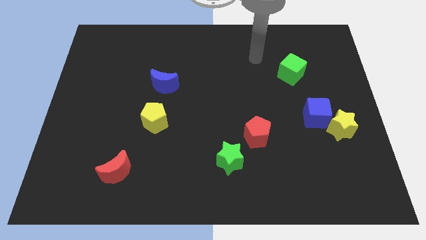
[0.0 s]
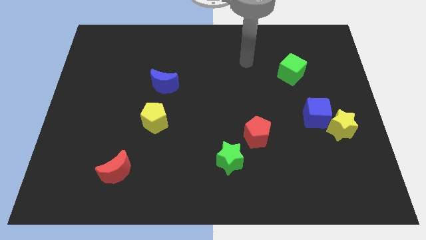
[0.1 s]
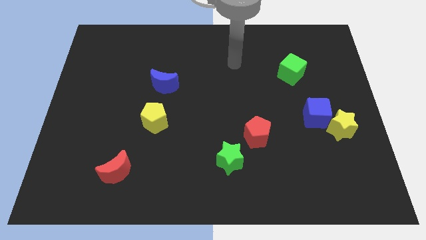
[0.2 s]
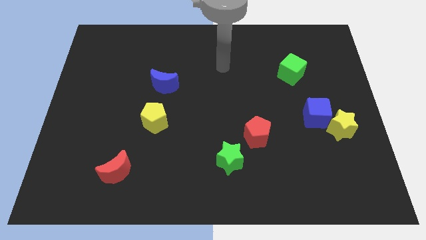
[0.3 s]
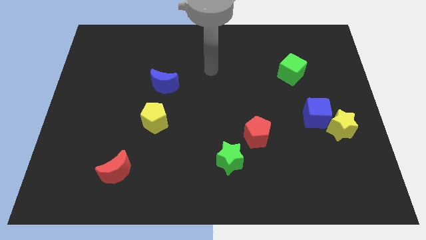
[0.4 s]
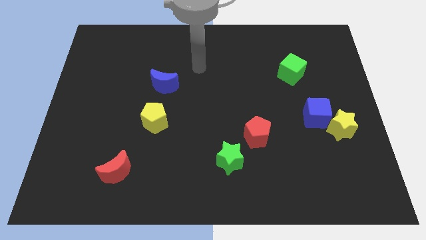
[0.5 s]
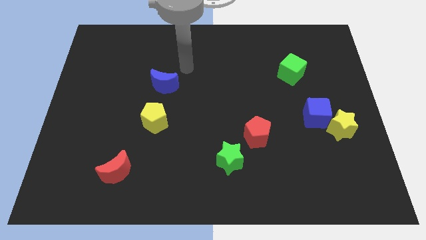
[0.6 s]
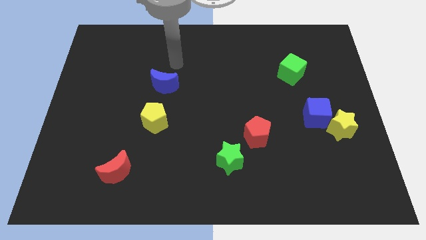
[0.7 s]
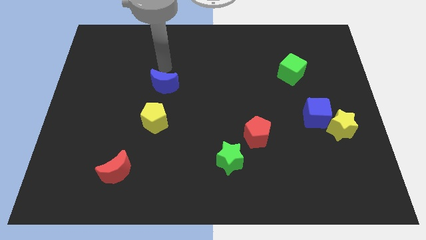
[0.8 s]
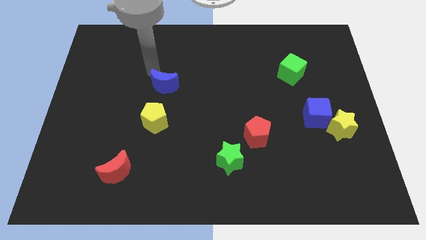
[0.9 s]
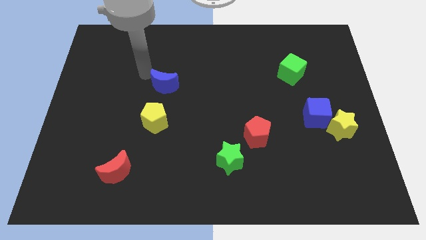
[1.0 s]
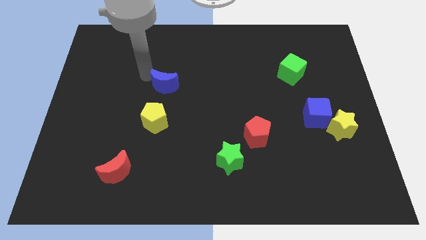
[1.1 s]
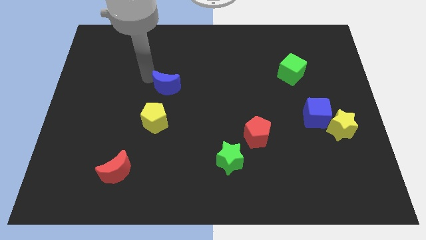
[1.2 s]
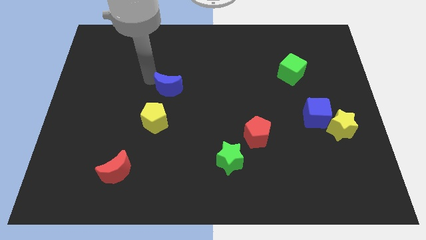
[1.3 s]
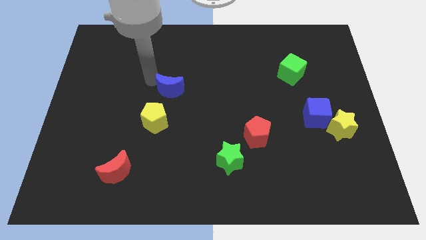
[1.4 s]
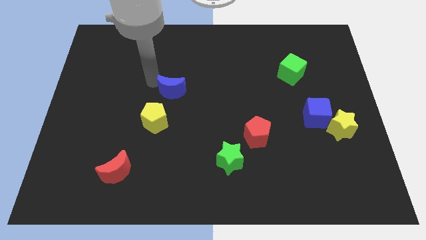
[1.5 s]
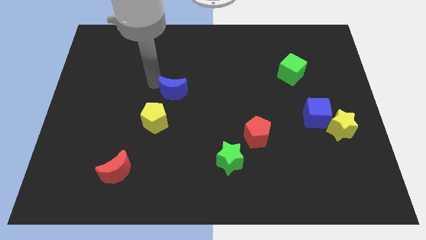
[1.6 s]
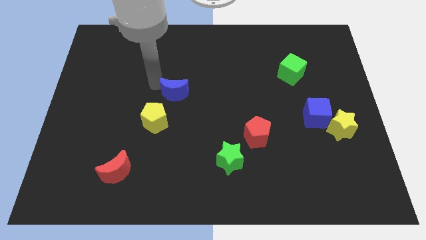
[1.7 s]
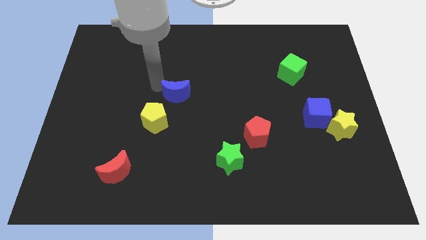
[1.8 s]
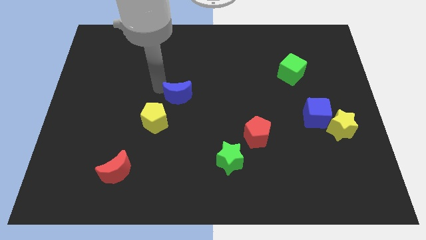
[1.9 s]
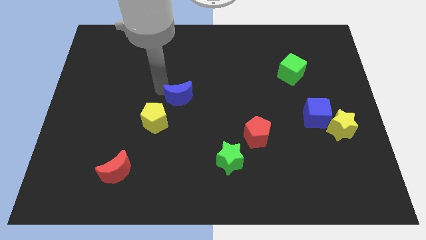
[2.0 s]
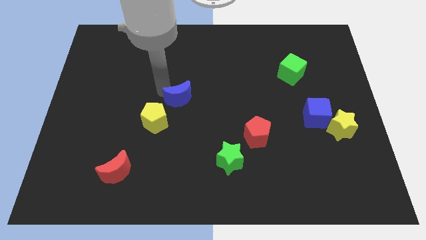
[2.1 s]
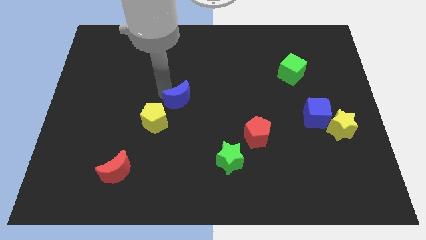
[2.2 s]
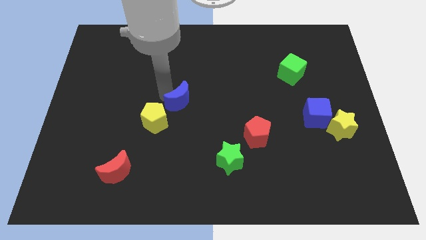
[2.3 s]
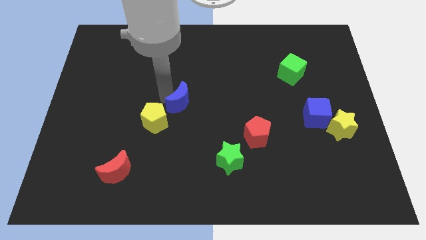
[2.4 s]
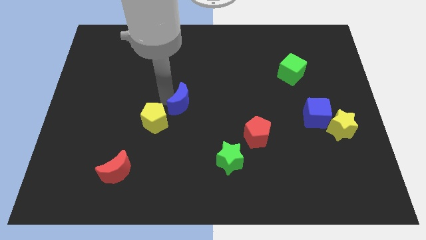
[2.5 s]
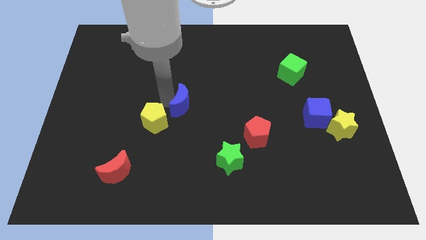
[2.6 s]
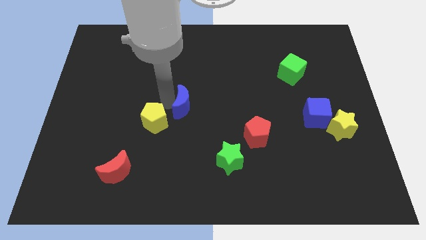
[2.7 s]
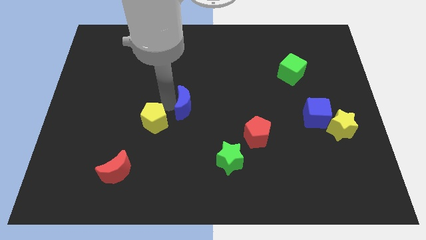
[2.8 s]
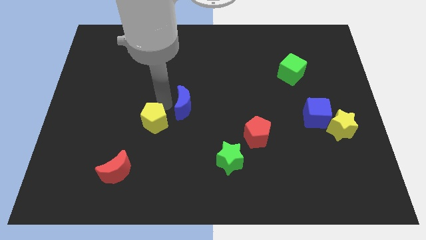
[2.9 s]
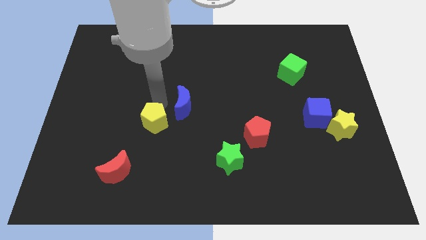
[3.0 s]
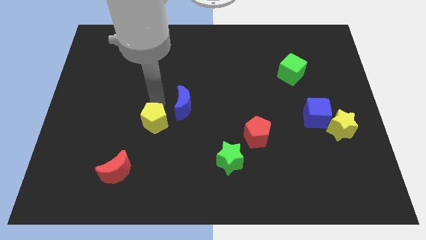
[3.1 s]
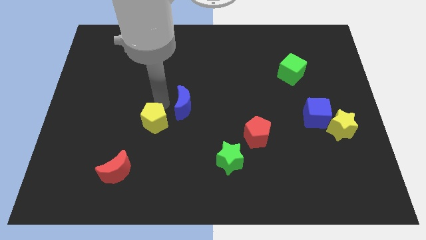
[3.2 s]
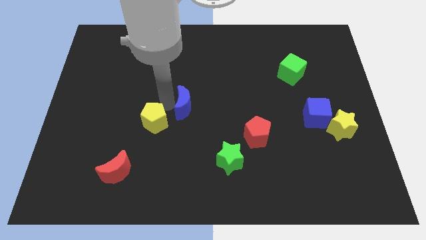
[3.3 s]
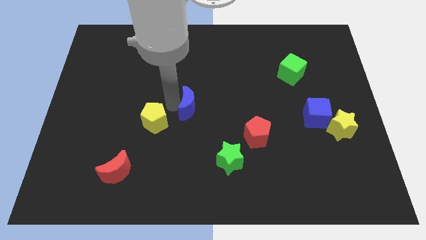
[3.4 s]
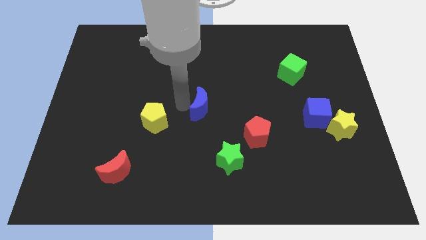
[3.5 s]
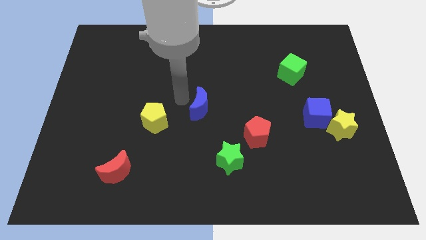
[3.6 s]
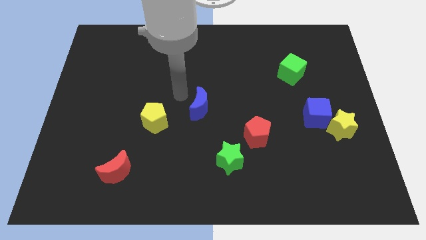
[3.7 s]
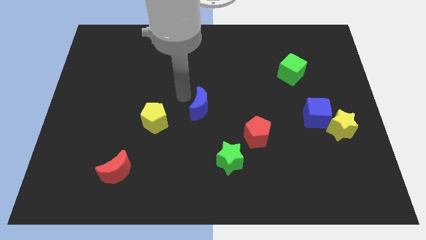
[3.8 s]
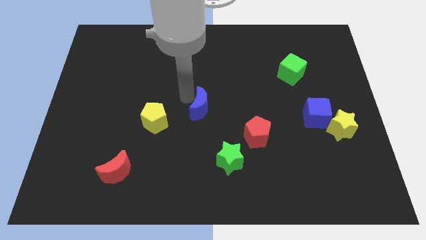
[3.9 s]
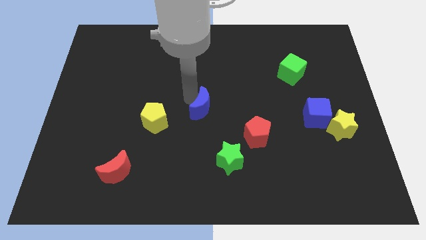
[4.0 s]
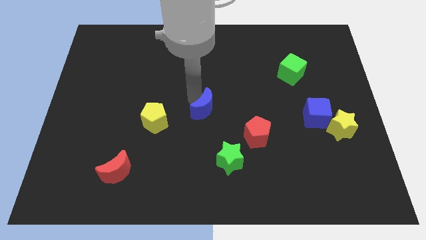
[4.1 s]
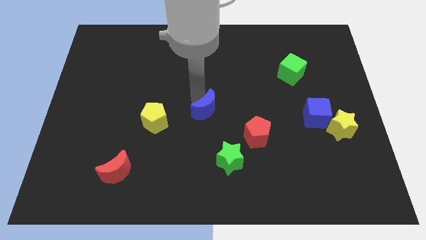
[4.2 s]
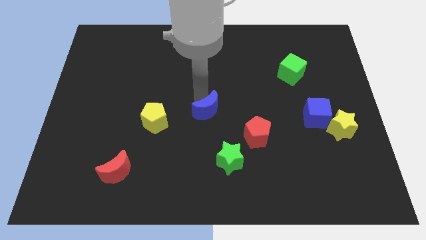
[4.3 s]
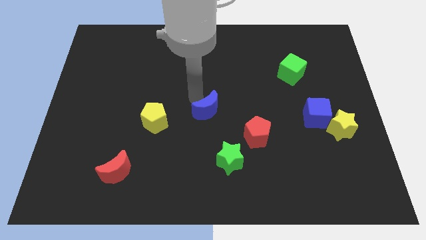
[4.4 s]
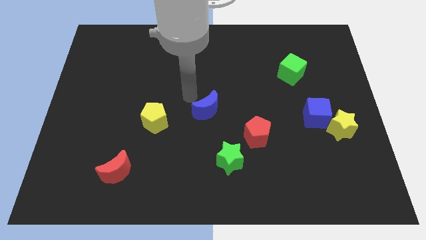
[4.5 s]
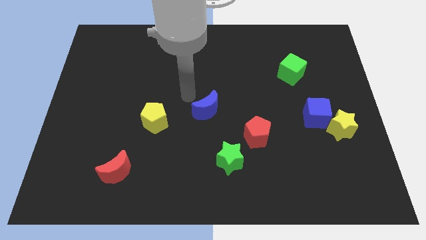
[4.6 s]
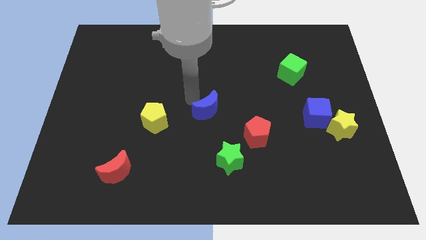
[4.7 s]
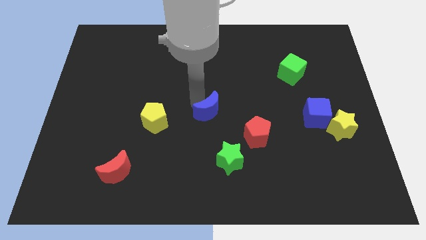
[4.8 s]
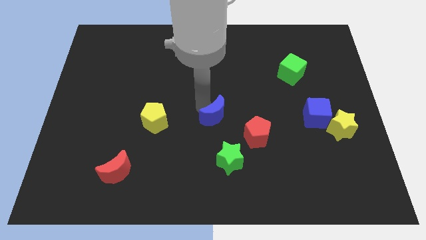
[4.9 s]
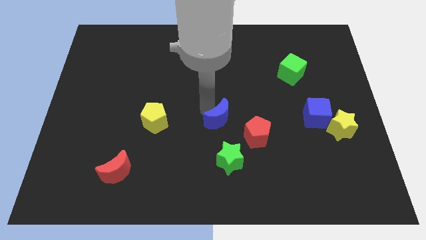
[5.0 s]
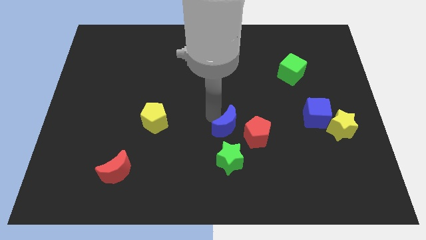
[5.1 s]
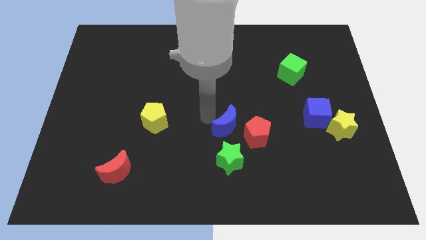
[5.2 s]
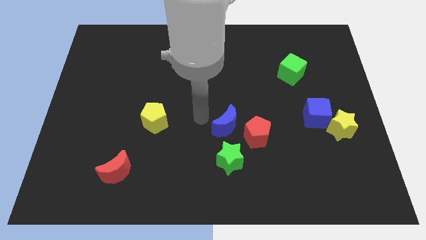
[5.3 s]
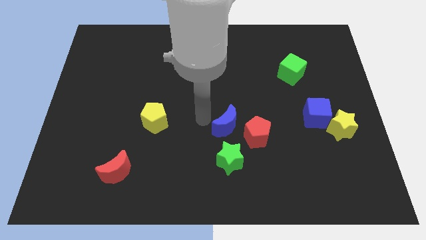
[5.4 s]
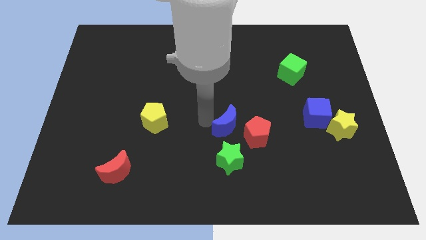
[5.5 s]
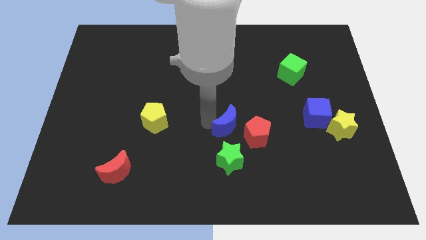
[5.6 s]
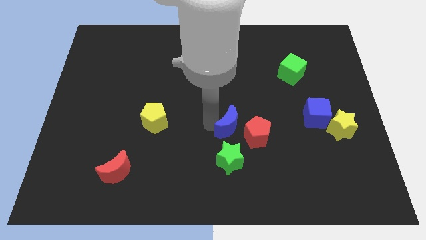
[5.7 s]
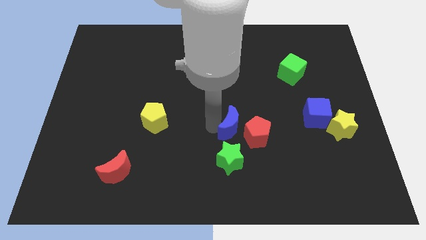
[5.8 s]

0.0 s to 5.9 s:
push the blue moon next to the red pentagon
